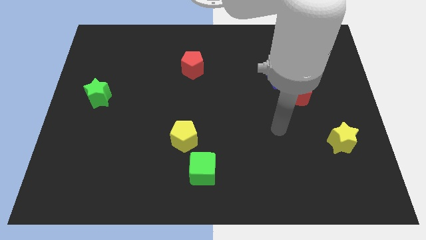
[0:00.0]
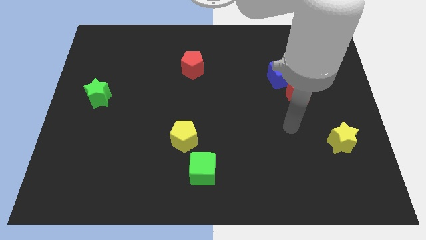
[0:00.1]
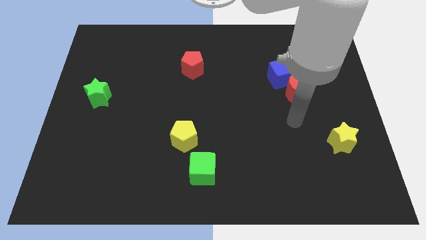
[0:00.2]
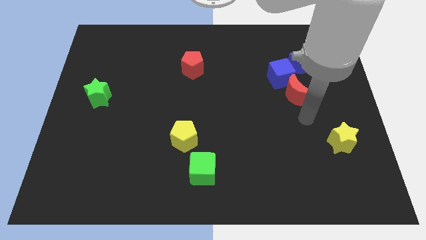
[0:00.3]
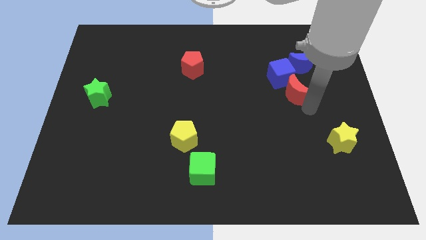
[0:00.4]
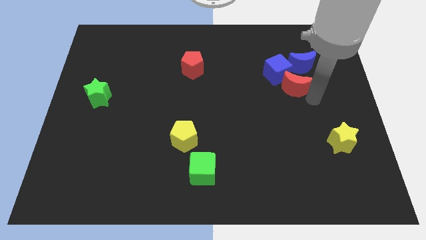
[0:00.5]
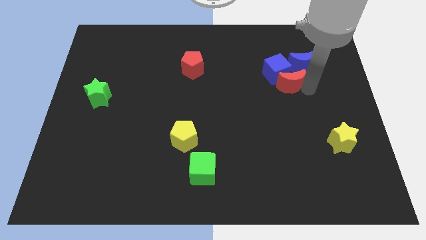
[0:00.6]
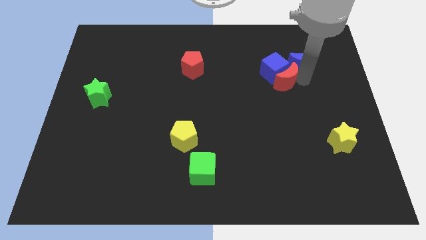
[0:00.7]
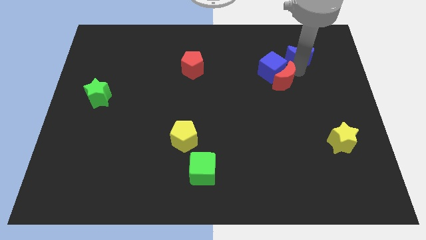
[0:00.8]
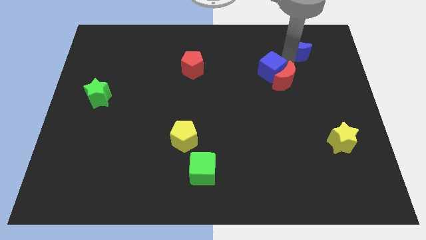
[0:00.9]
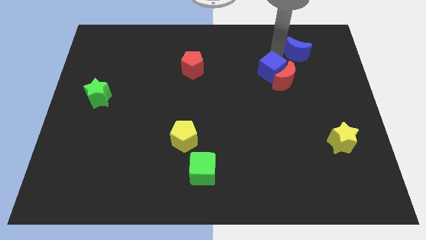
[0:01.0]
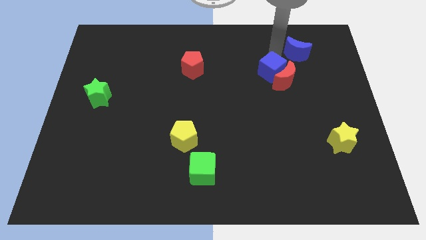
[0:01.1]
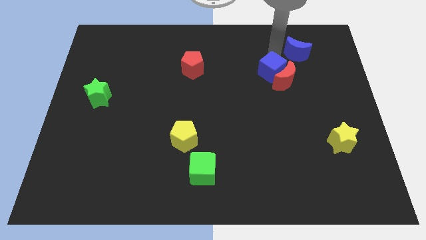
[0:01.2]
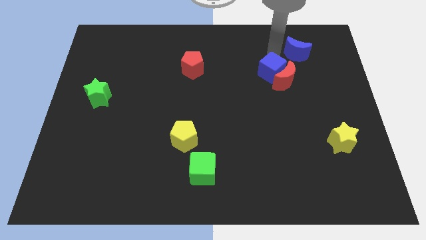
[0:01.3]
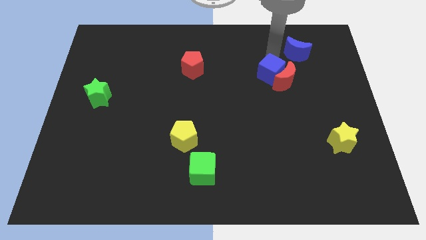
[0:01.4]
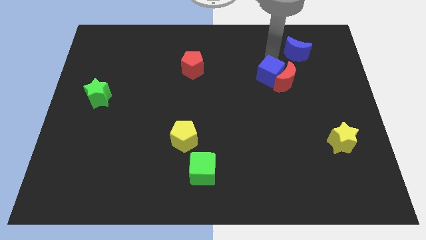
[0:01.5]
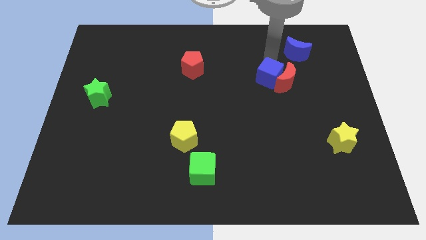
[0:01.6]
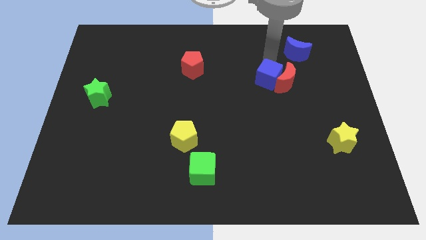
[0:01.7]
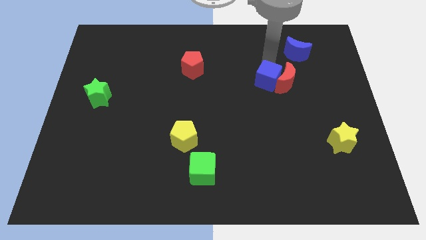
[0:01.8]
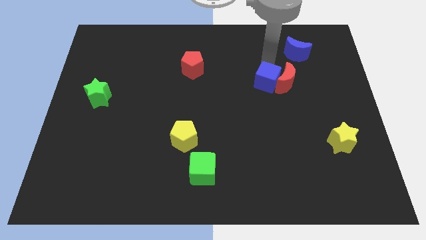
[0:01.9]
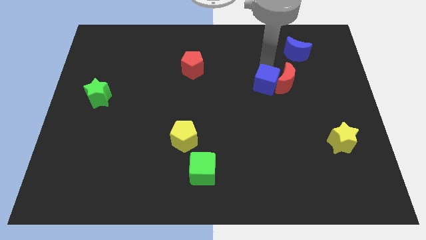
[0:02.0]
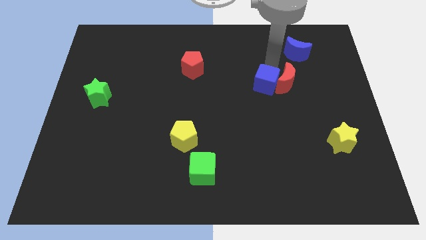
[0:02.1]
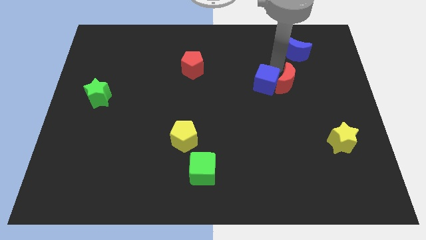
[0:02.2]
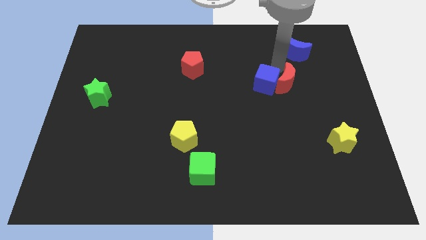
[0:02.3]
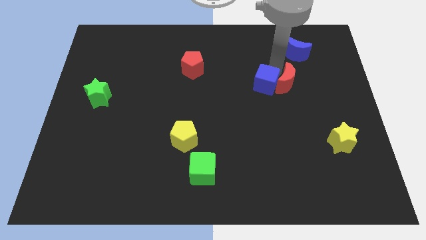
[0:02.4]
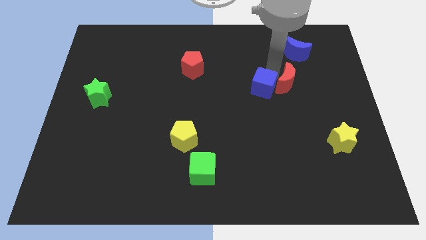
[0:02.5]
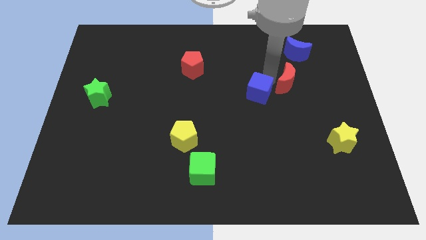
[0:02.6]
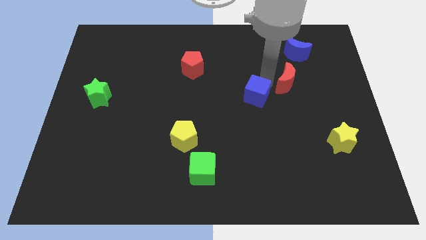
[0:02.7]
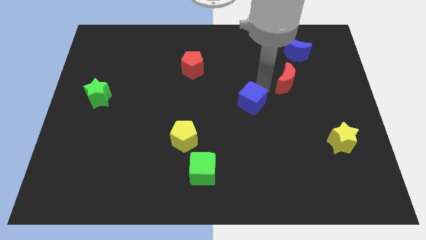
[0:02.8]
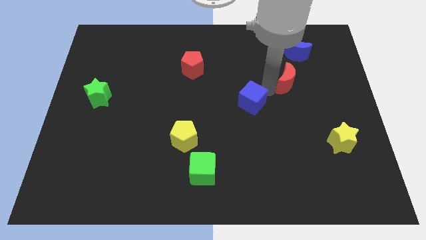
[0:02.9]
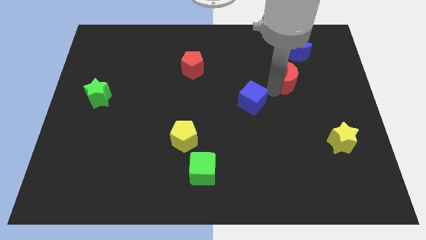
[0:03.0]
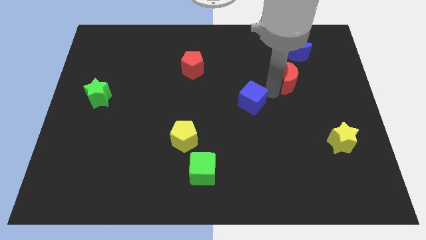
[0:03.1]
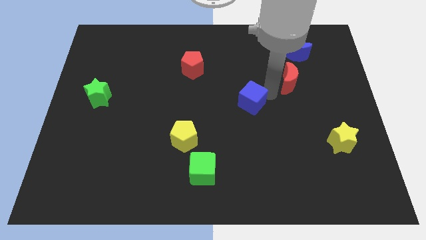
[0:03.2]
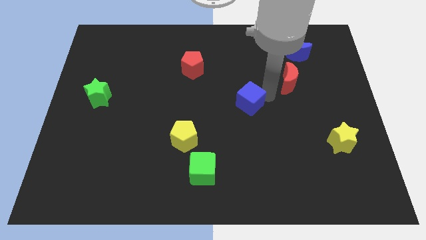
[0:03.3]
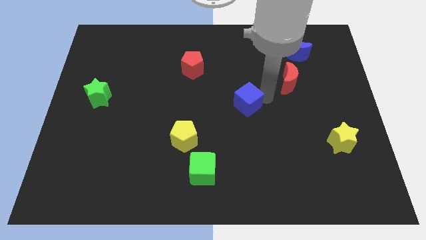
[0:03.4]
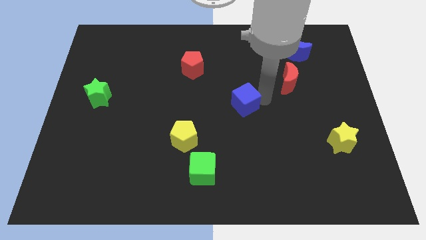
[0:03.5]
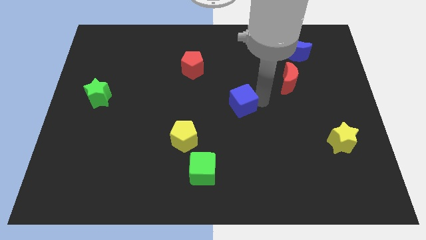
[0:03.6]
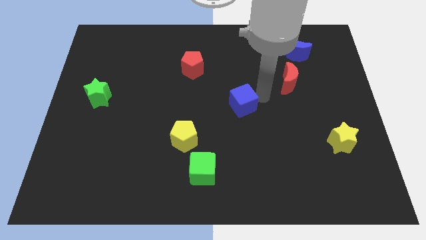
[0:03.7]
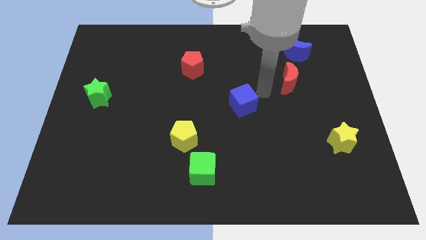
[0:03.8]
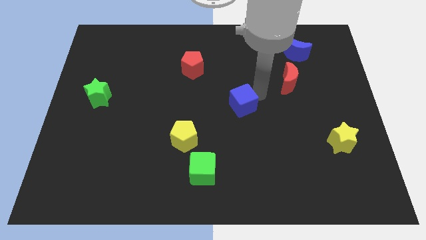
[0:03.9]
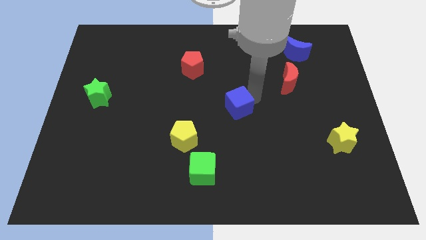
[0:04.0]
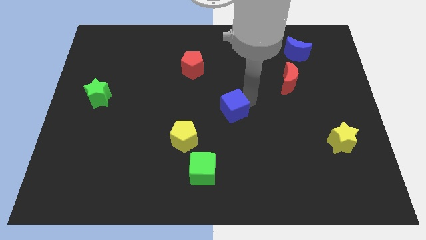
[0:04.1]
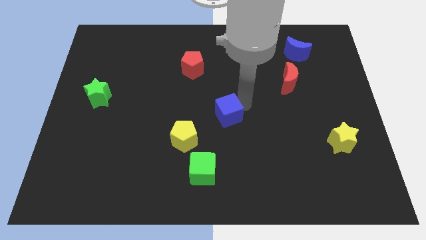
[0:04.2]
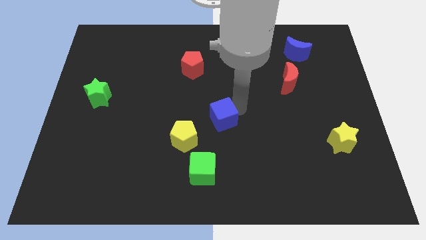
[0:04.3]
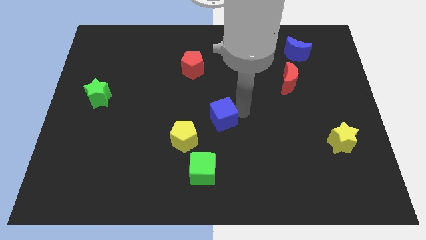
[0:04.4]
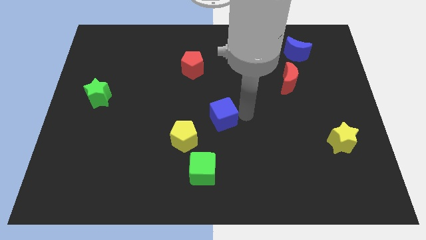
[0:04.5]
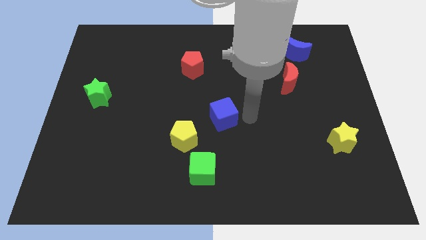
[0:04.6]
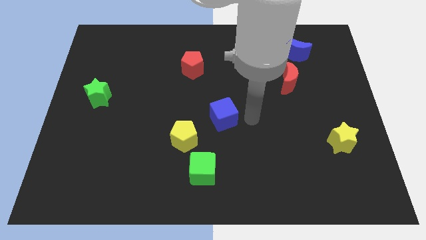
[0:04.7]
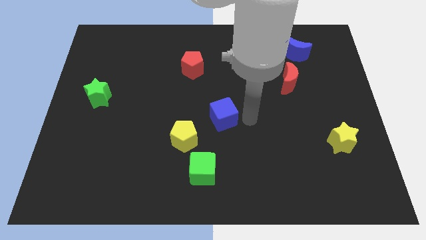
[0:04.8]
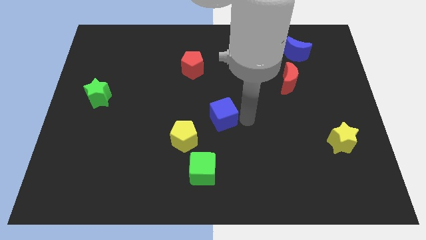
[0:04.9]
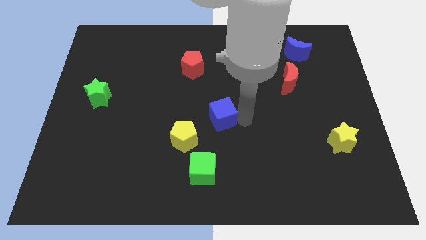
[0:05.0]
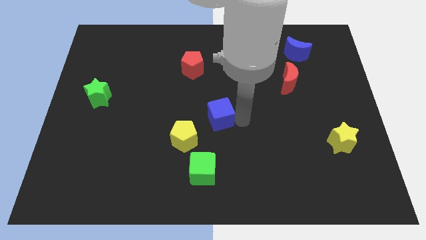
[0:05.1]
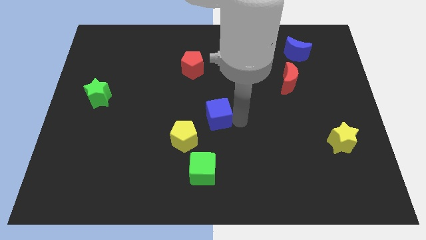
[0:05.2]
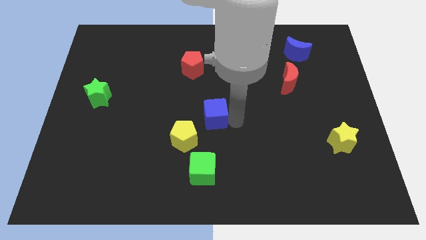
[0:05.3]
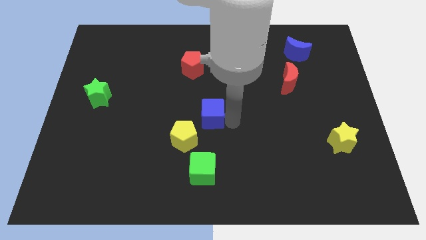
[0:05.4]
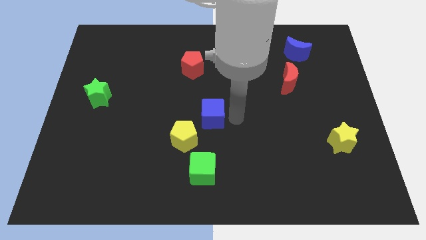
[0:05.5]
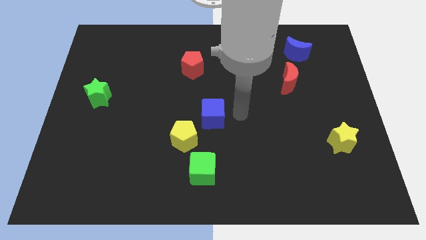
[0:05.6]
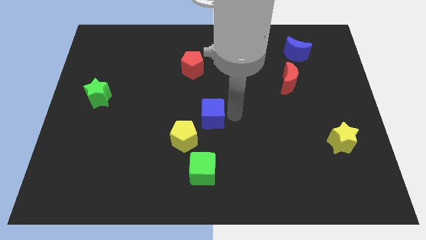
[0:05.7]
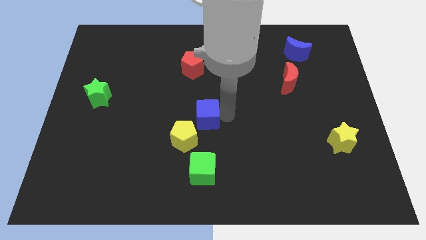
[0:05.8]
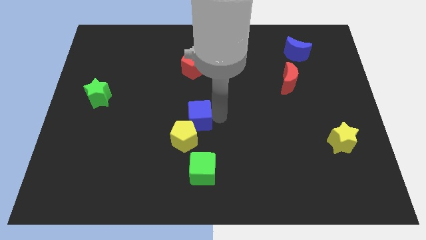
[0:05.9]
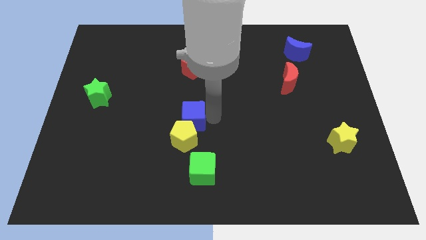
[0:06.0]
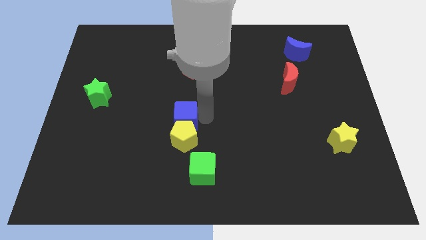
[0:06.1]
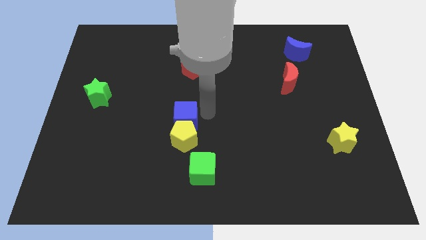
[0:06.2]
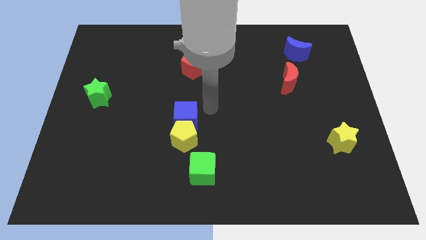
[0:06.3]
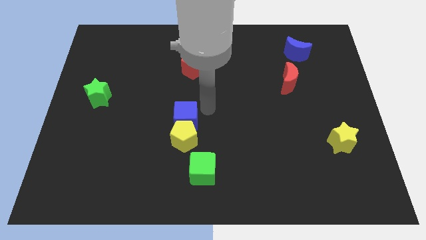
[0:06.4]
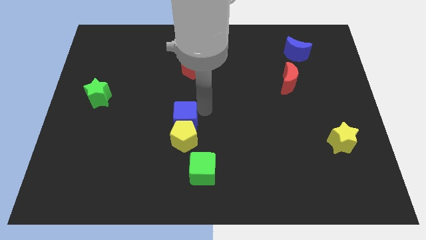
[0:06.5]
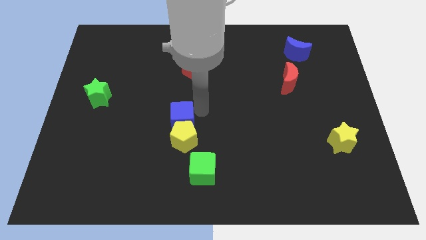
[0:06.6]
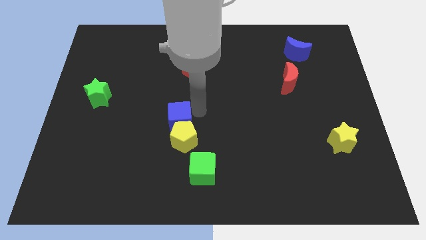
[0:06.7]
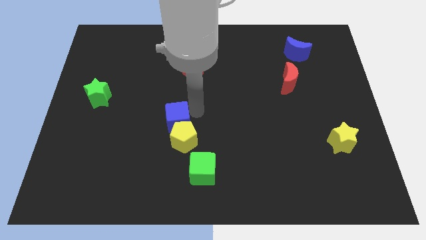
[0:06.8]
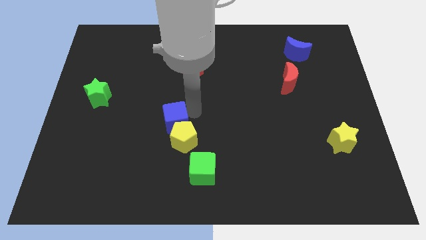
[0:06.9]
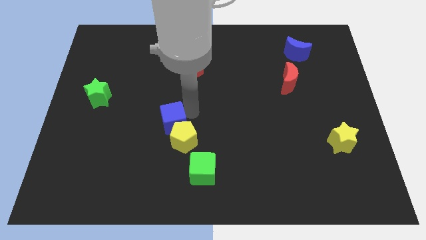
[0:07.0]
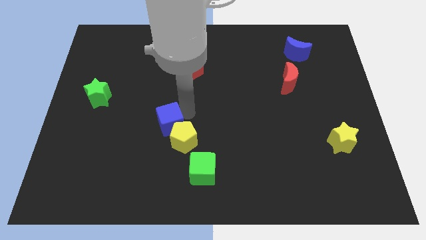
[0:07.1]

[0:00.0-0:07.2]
move the blue cube to the left side of the yellow pentagon

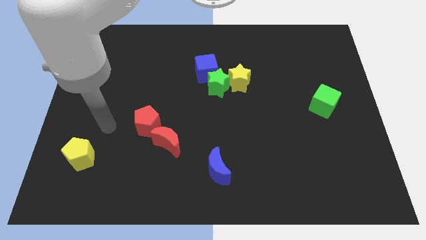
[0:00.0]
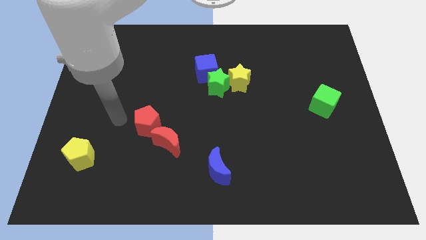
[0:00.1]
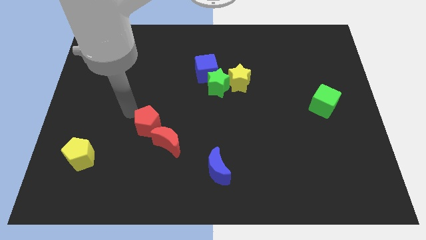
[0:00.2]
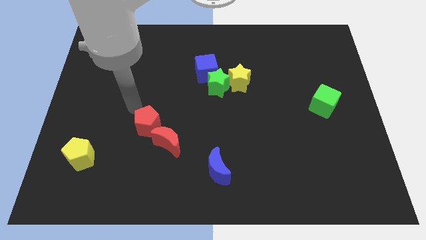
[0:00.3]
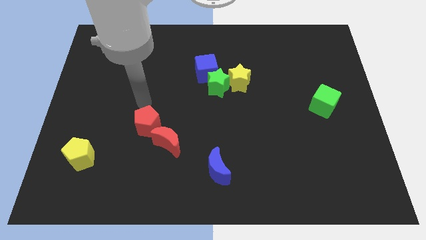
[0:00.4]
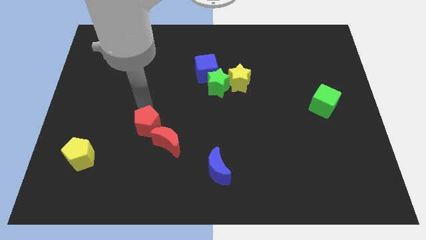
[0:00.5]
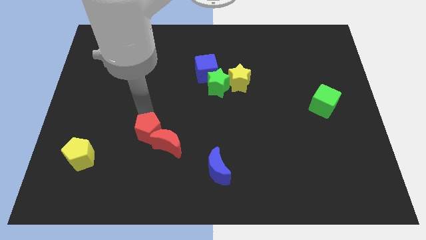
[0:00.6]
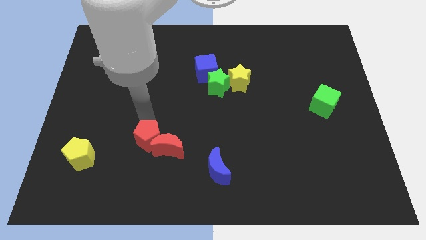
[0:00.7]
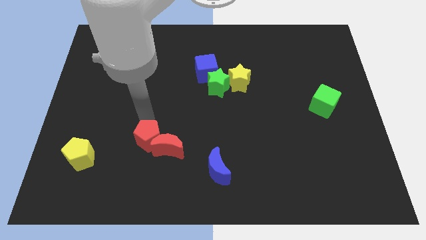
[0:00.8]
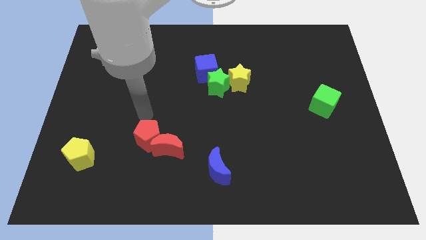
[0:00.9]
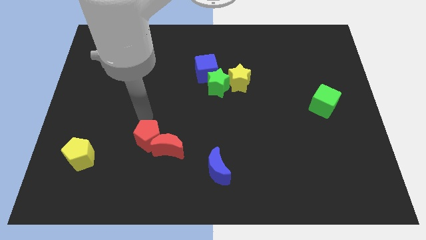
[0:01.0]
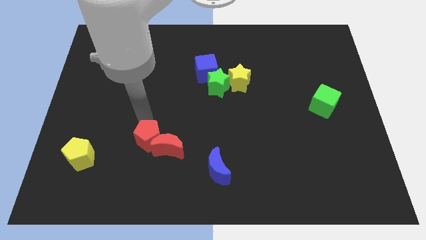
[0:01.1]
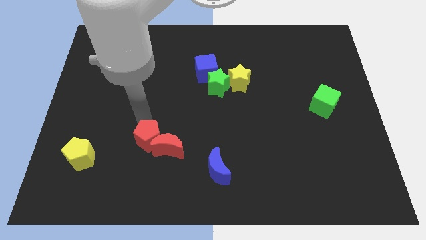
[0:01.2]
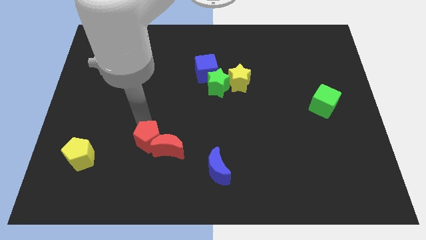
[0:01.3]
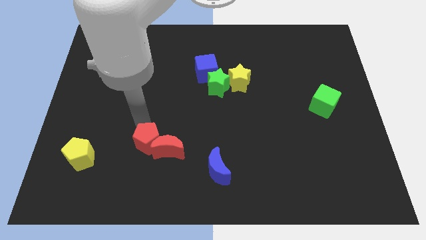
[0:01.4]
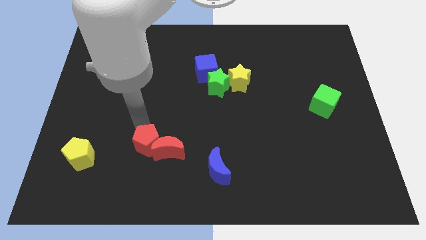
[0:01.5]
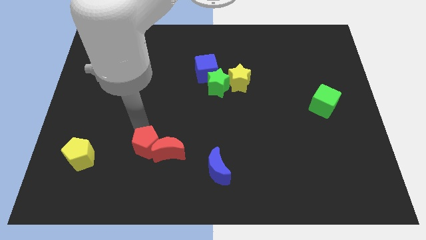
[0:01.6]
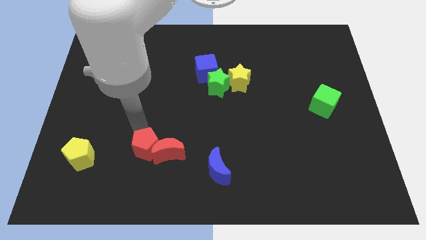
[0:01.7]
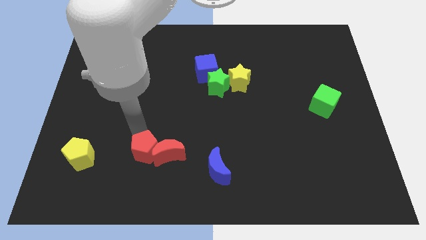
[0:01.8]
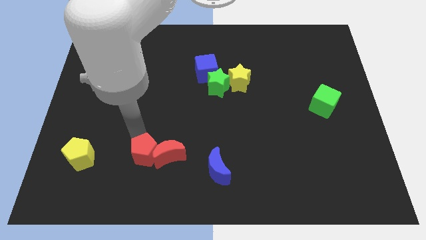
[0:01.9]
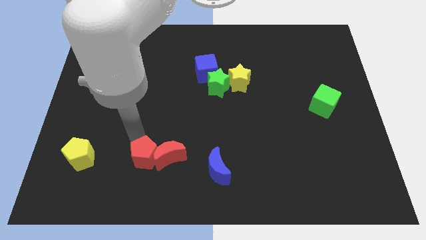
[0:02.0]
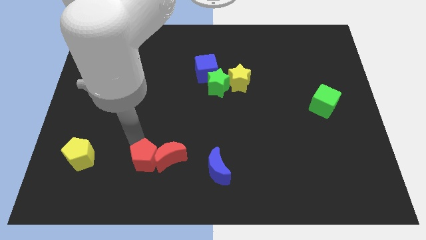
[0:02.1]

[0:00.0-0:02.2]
put the red pentagon just left of the blue moon
